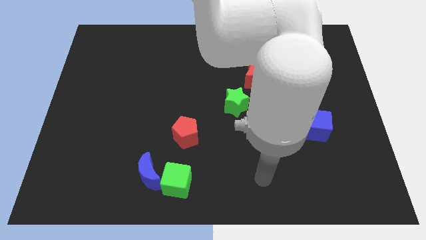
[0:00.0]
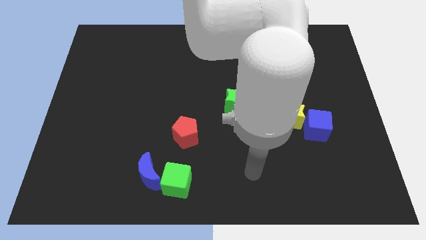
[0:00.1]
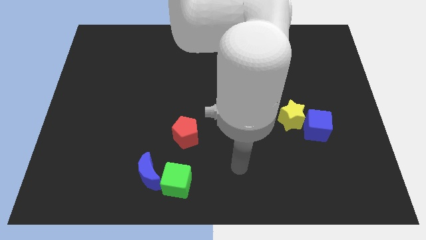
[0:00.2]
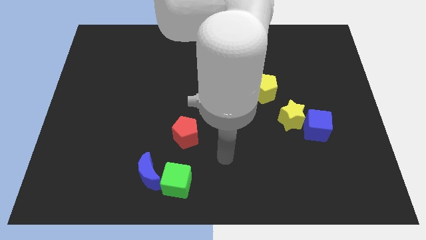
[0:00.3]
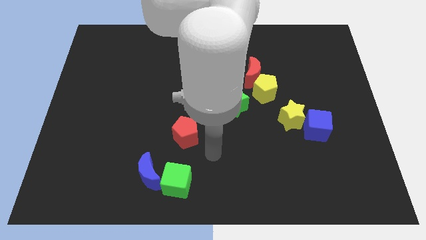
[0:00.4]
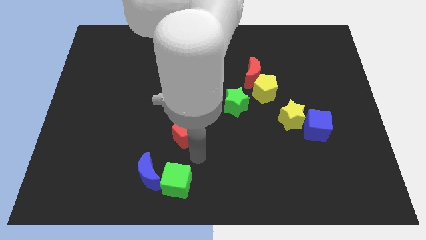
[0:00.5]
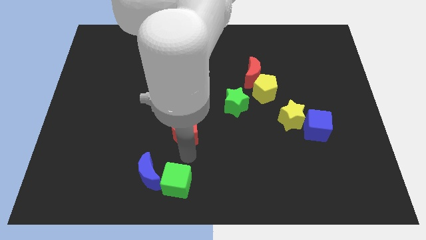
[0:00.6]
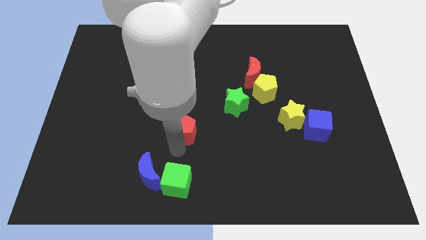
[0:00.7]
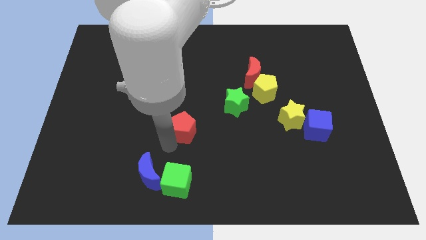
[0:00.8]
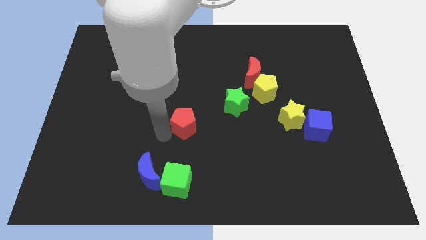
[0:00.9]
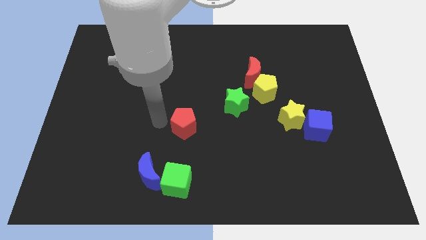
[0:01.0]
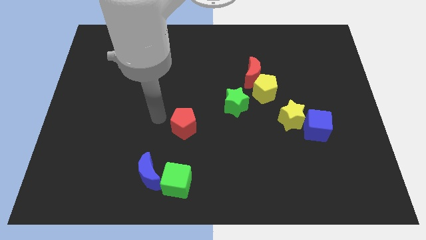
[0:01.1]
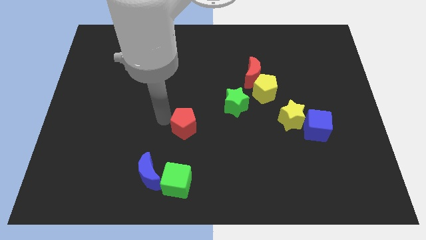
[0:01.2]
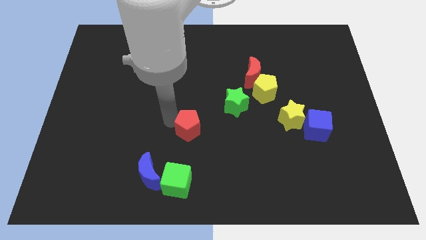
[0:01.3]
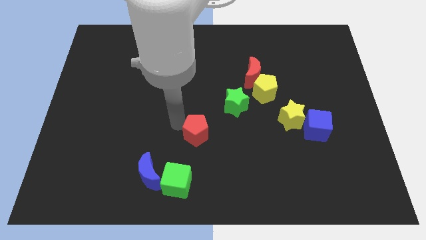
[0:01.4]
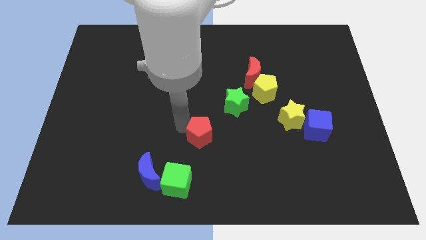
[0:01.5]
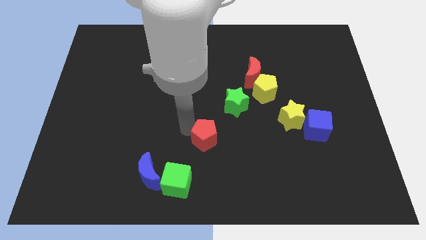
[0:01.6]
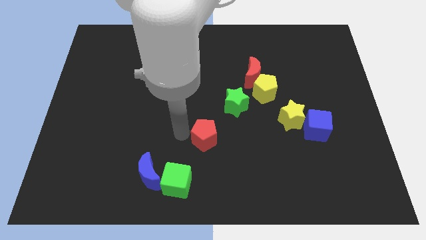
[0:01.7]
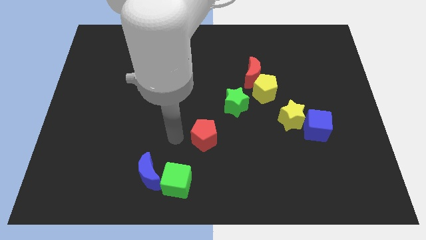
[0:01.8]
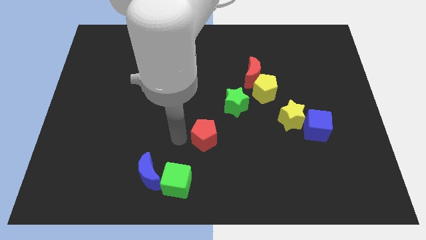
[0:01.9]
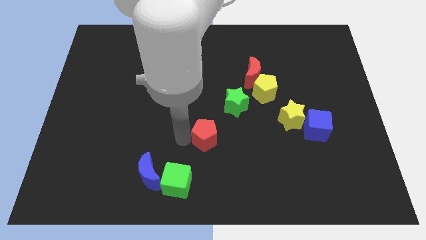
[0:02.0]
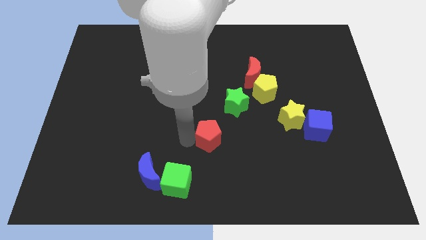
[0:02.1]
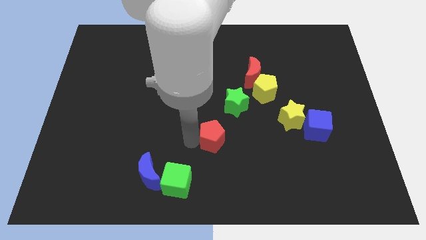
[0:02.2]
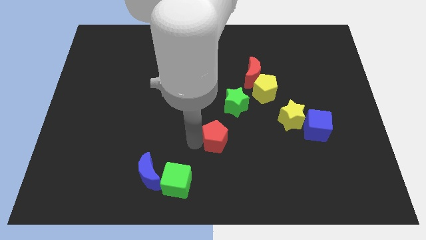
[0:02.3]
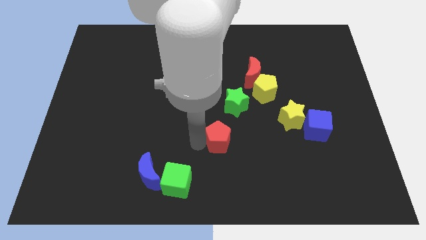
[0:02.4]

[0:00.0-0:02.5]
slightly move the red pentagon to the right

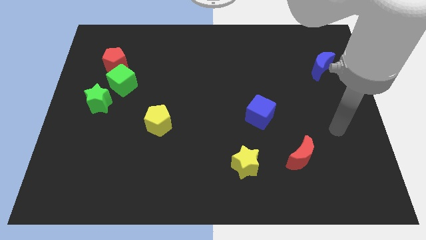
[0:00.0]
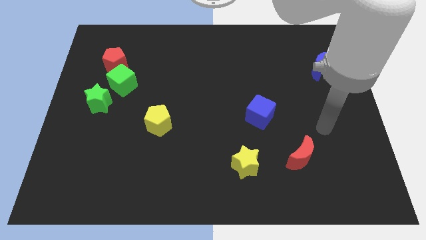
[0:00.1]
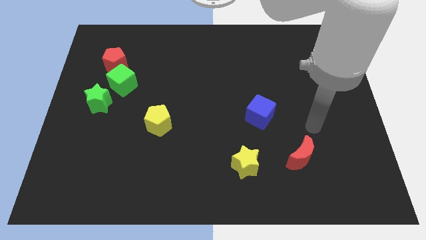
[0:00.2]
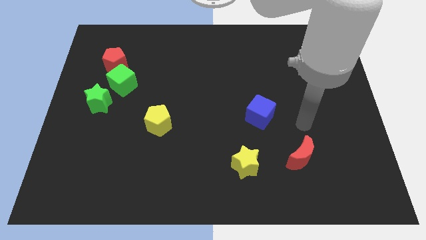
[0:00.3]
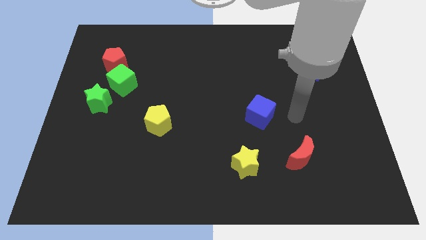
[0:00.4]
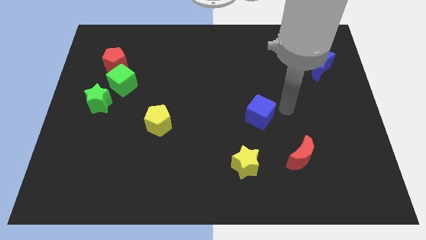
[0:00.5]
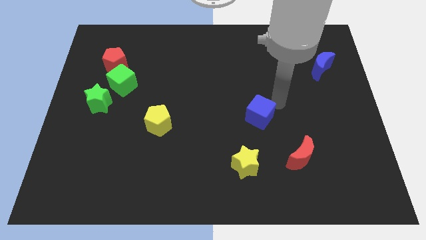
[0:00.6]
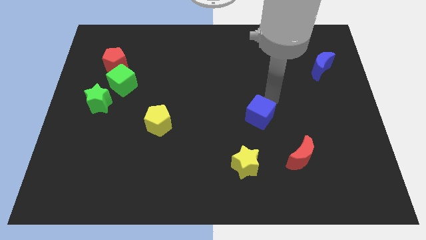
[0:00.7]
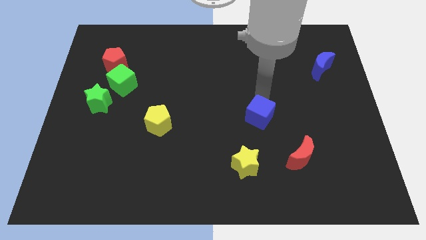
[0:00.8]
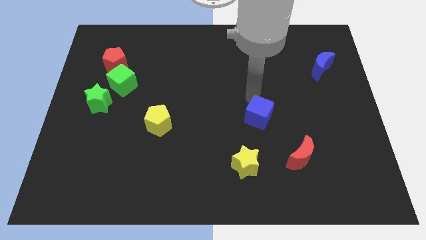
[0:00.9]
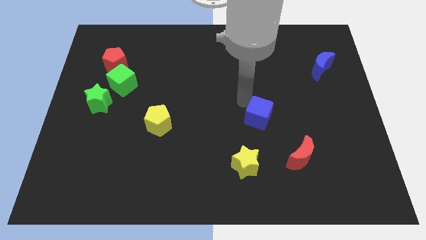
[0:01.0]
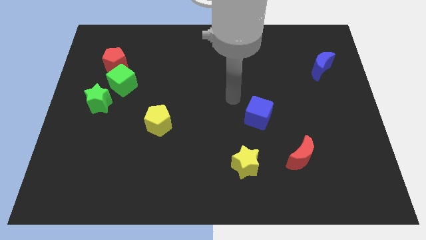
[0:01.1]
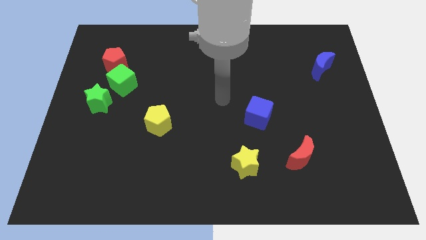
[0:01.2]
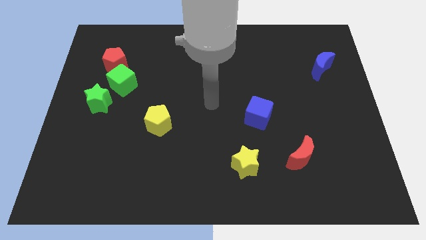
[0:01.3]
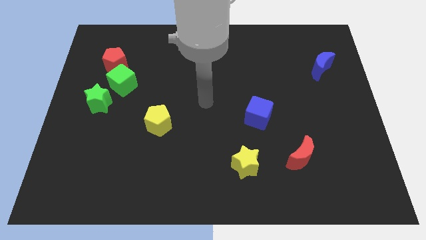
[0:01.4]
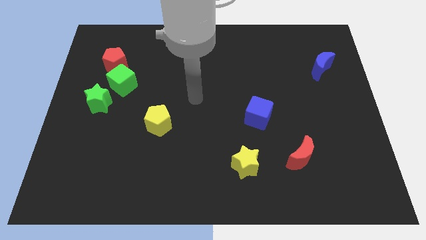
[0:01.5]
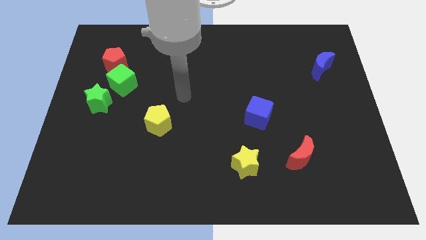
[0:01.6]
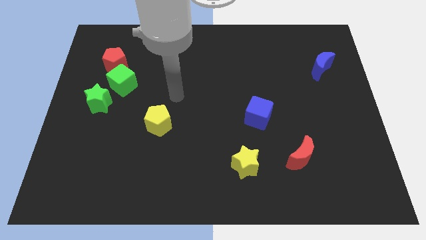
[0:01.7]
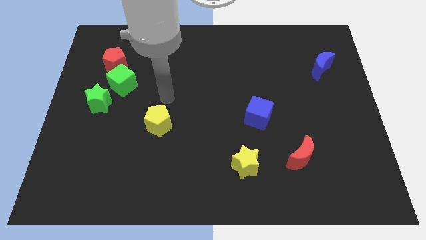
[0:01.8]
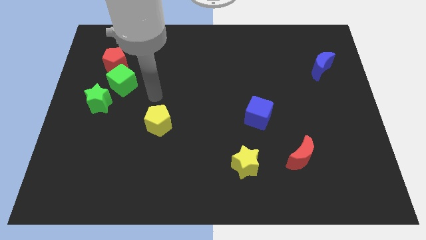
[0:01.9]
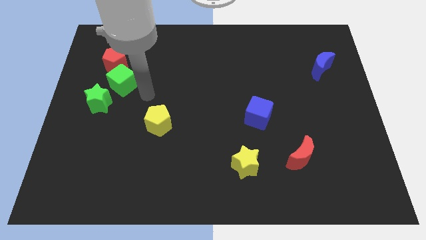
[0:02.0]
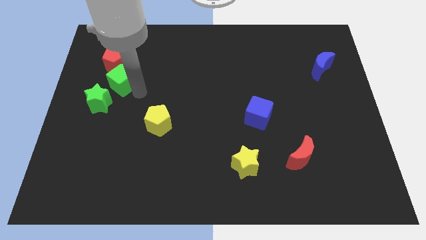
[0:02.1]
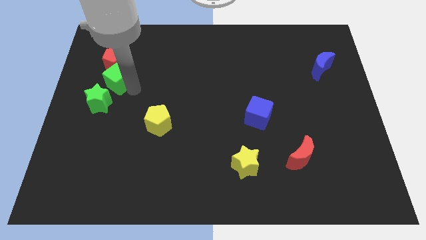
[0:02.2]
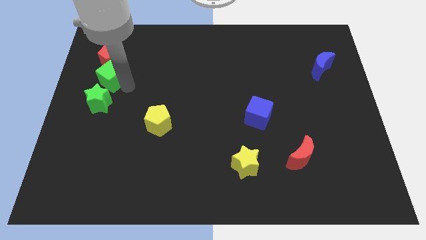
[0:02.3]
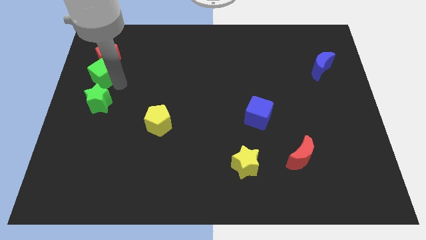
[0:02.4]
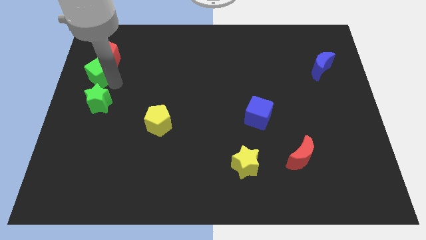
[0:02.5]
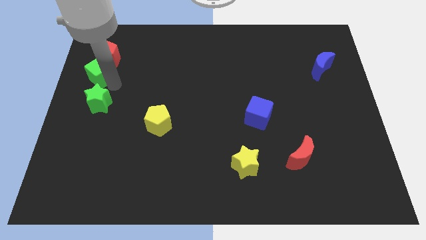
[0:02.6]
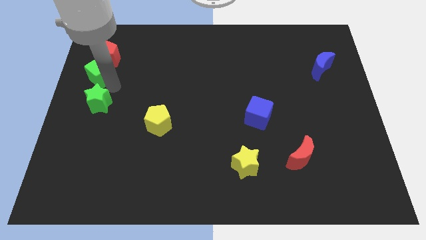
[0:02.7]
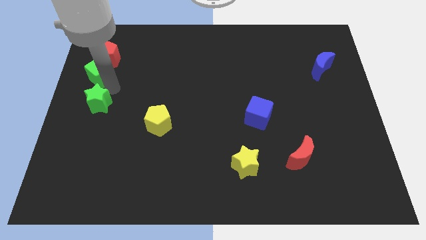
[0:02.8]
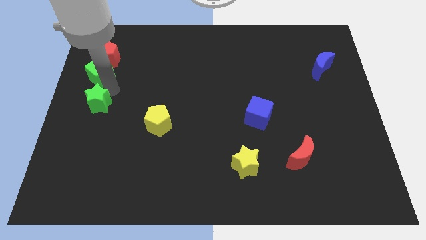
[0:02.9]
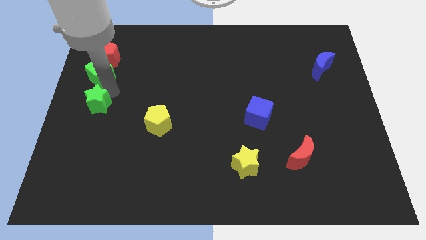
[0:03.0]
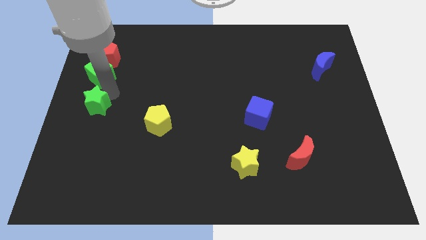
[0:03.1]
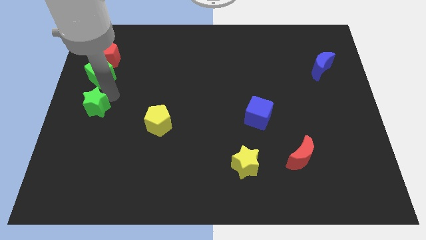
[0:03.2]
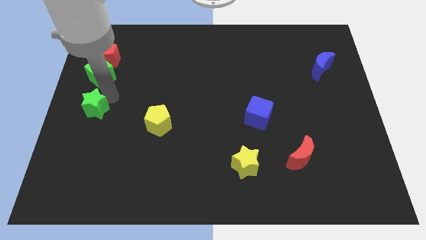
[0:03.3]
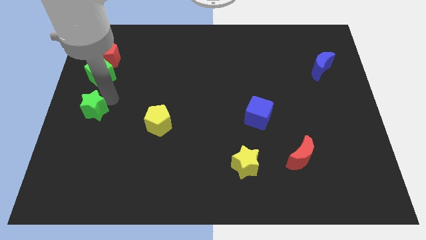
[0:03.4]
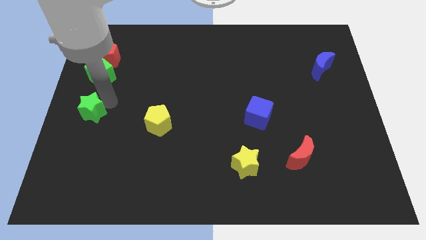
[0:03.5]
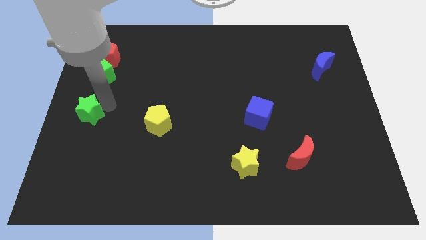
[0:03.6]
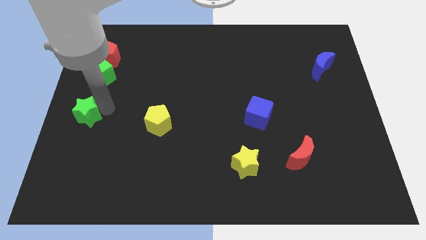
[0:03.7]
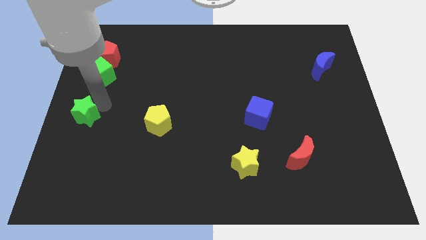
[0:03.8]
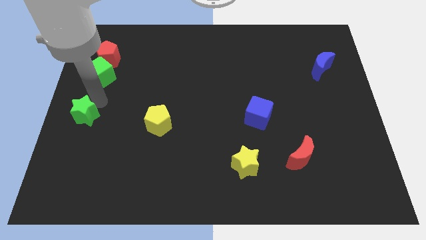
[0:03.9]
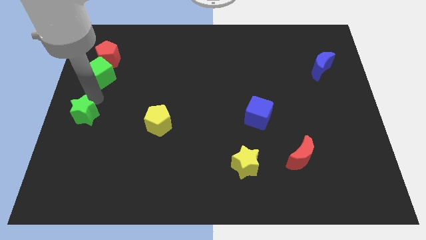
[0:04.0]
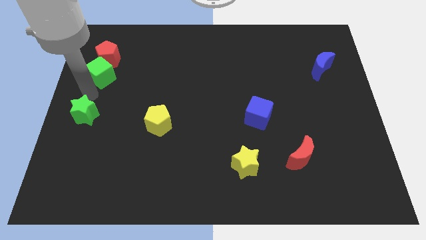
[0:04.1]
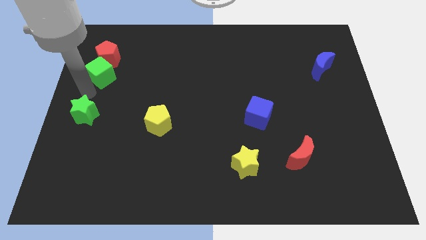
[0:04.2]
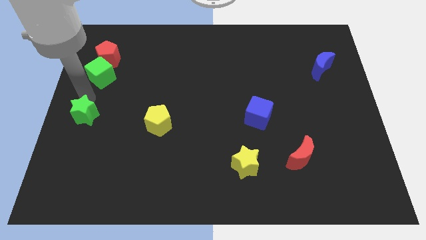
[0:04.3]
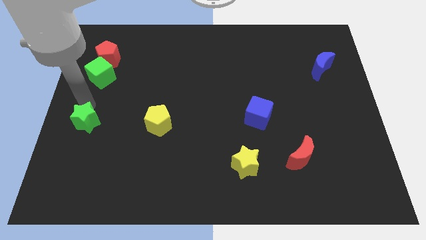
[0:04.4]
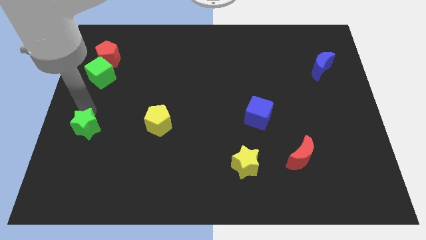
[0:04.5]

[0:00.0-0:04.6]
move the green star a little downwards

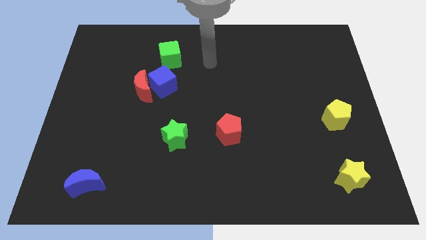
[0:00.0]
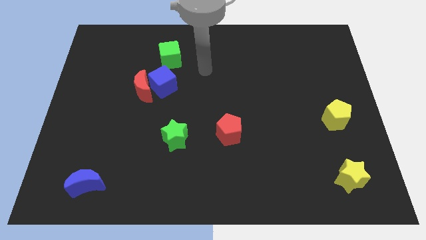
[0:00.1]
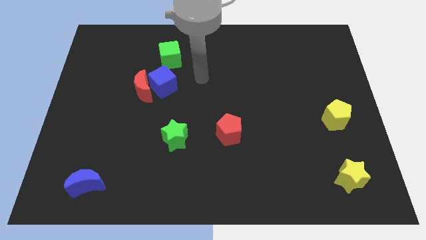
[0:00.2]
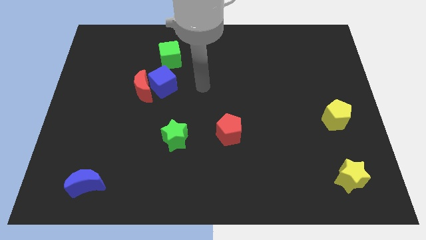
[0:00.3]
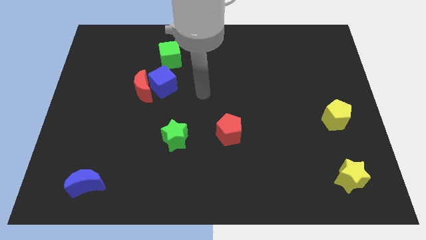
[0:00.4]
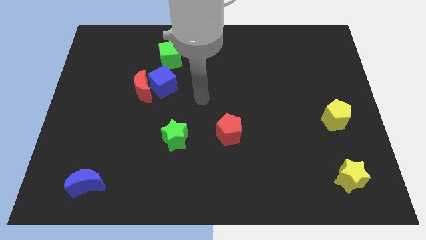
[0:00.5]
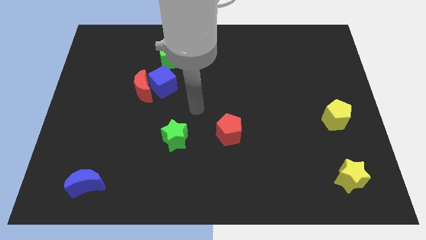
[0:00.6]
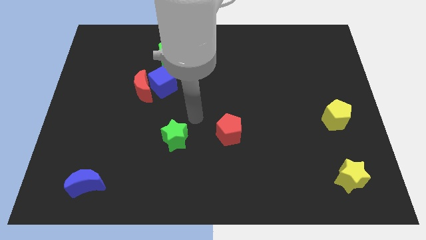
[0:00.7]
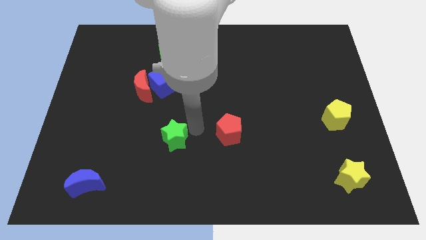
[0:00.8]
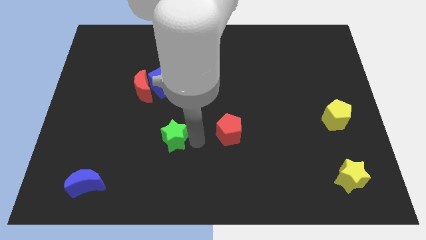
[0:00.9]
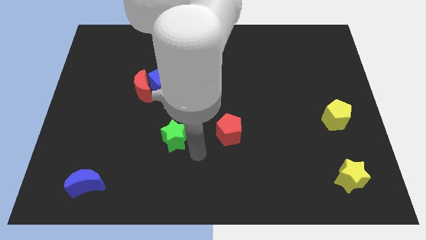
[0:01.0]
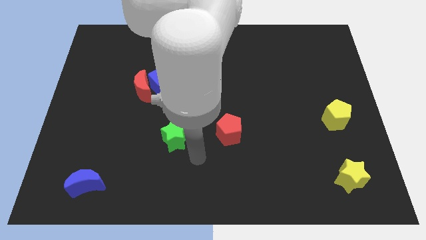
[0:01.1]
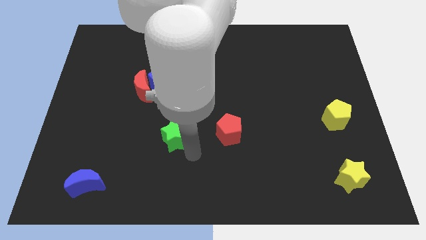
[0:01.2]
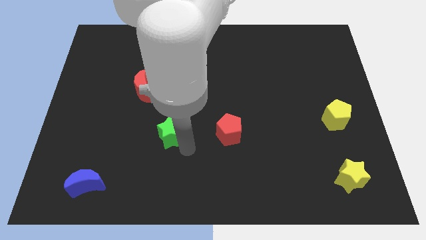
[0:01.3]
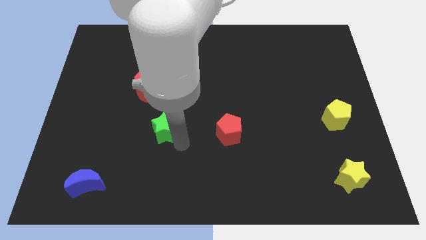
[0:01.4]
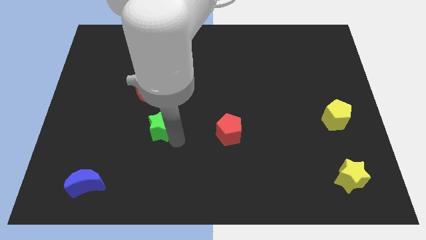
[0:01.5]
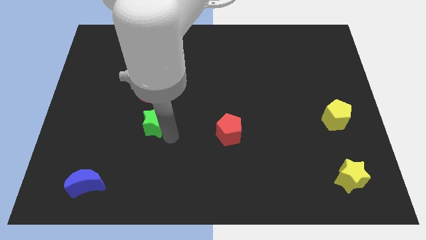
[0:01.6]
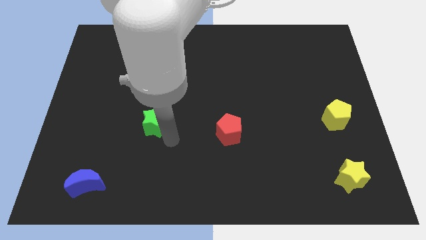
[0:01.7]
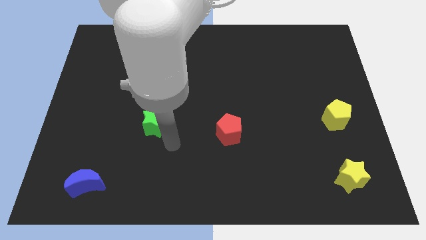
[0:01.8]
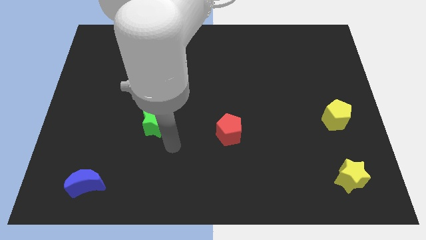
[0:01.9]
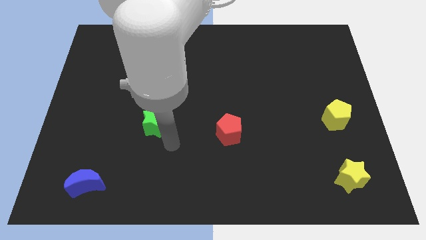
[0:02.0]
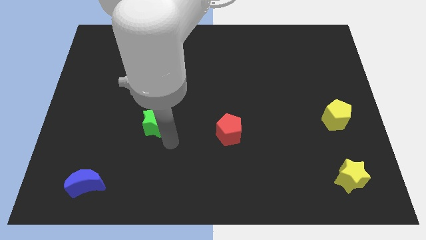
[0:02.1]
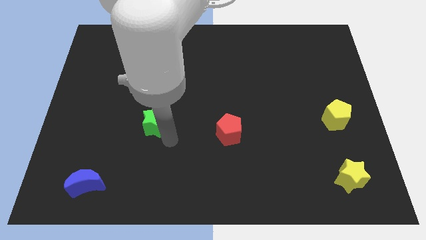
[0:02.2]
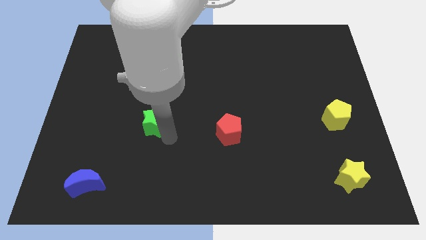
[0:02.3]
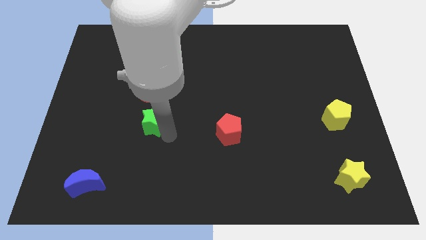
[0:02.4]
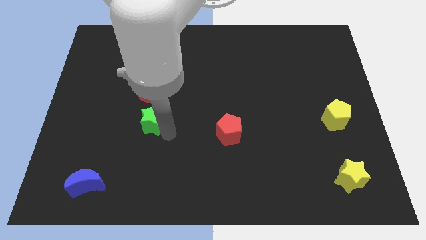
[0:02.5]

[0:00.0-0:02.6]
slightly push the green star upwards and then to the left
